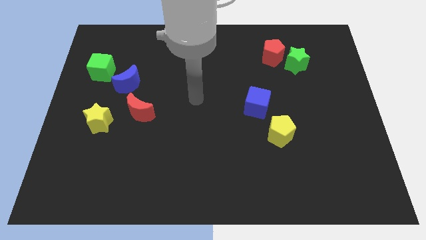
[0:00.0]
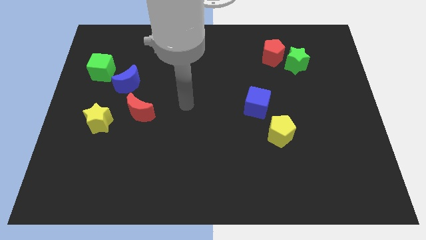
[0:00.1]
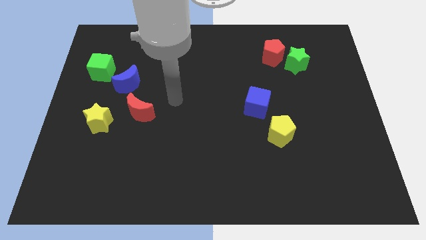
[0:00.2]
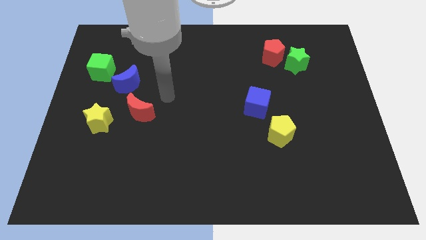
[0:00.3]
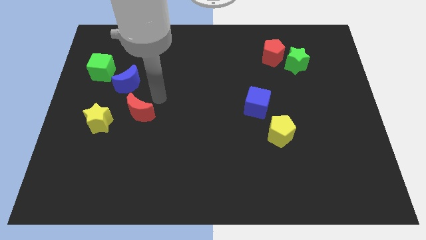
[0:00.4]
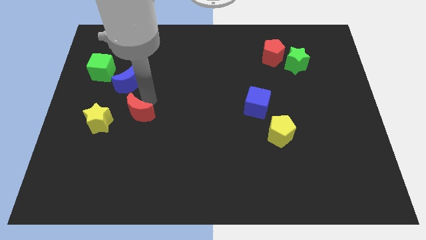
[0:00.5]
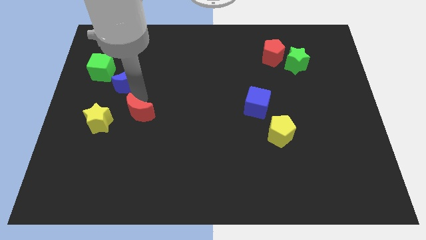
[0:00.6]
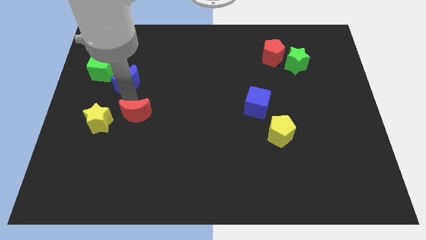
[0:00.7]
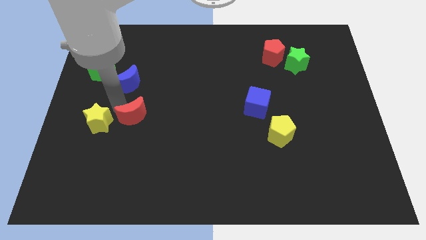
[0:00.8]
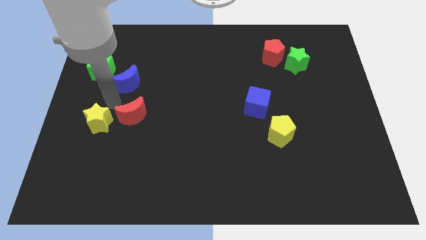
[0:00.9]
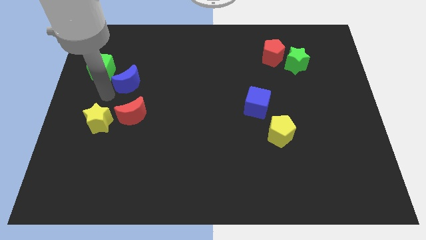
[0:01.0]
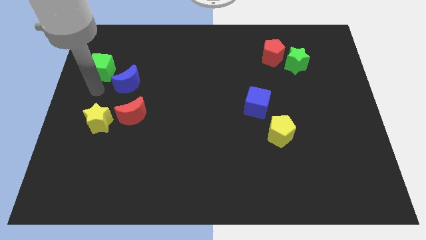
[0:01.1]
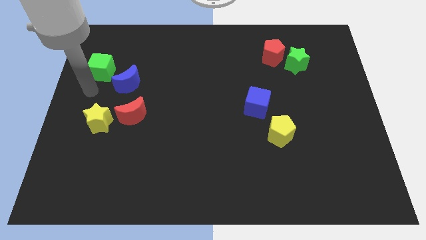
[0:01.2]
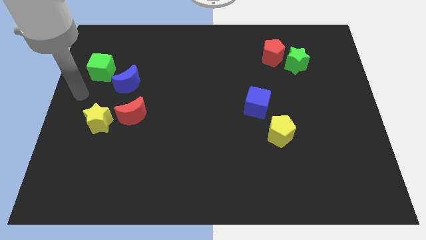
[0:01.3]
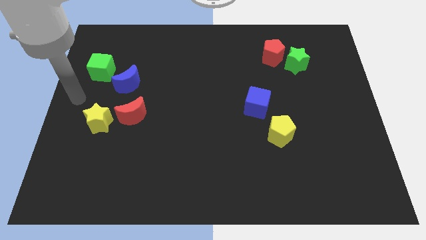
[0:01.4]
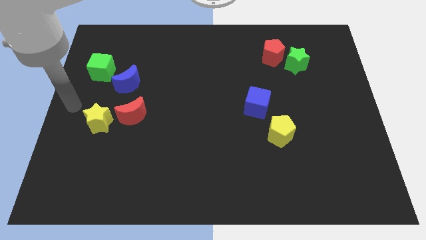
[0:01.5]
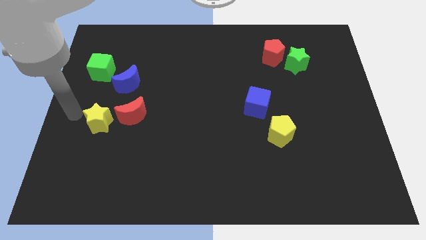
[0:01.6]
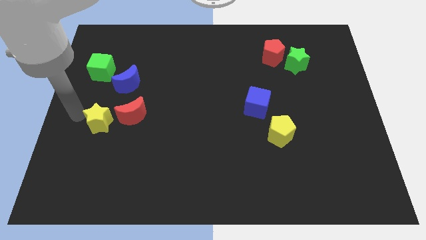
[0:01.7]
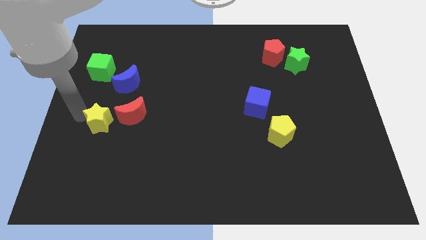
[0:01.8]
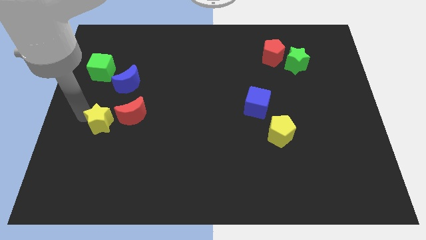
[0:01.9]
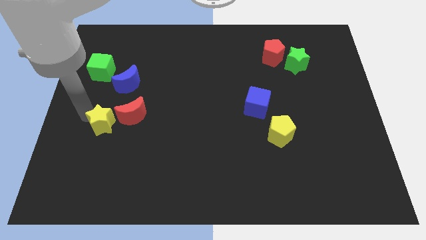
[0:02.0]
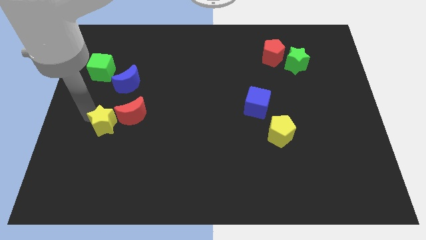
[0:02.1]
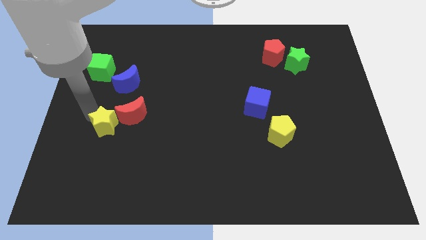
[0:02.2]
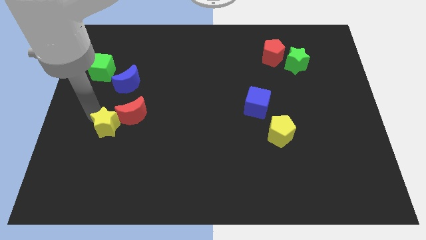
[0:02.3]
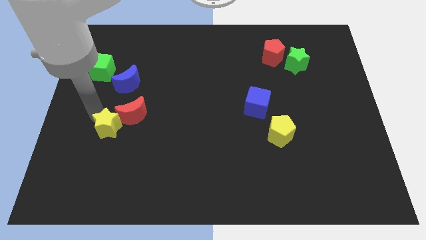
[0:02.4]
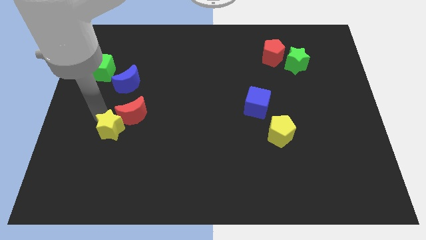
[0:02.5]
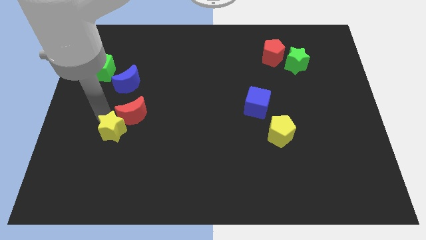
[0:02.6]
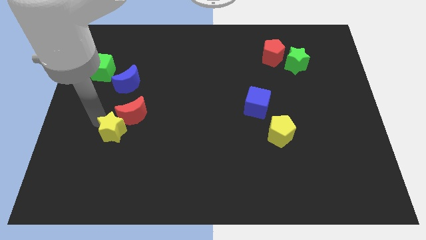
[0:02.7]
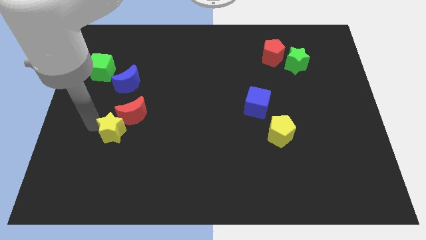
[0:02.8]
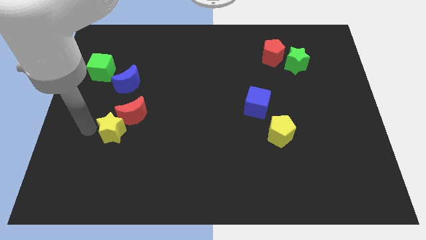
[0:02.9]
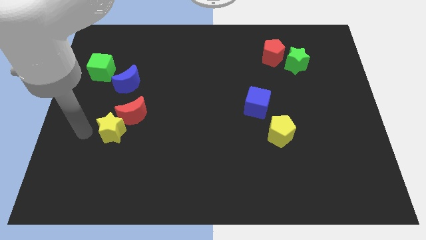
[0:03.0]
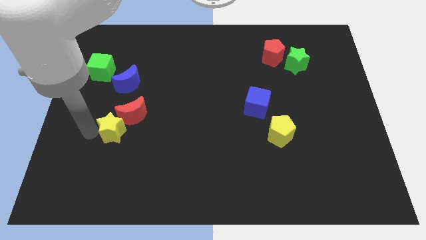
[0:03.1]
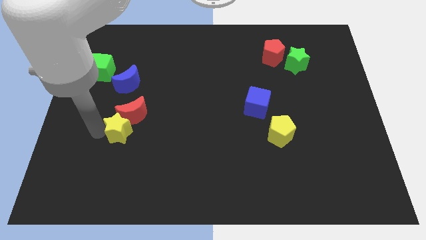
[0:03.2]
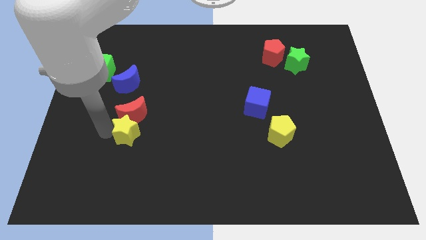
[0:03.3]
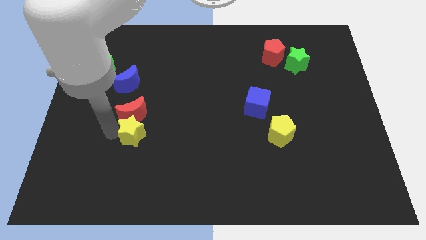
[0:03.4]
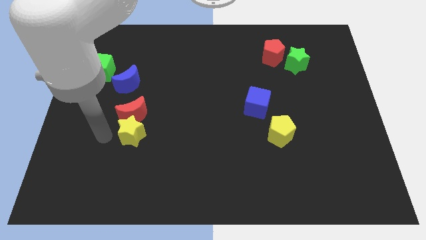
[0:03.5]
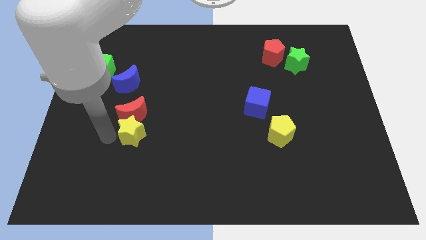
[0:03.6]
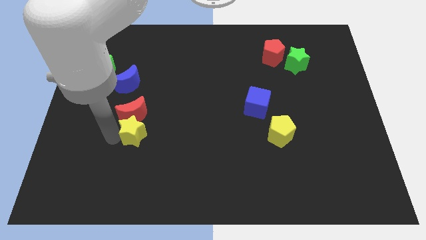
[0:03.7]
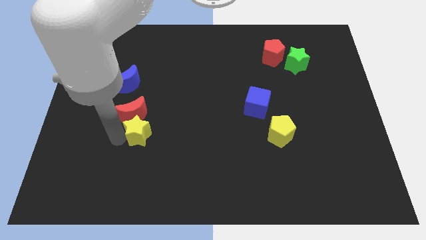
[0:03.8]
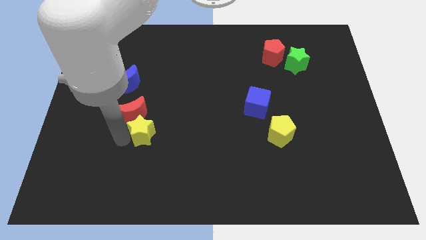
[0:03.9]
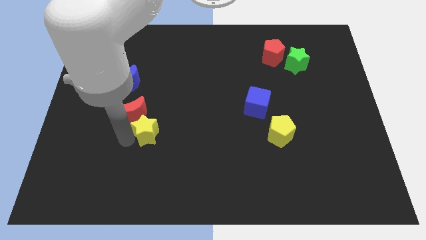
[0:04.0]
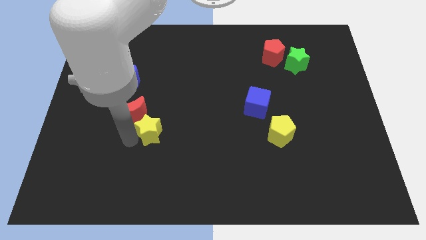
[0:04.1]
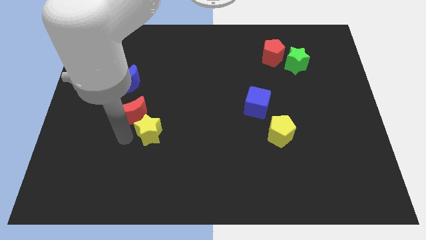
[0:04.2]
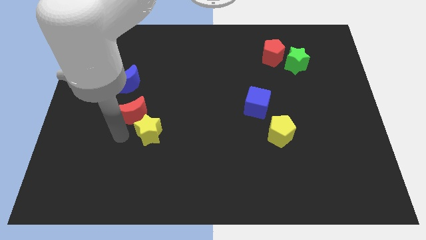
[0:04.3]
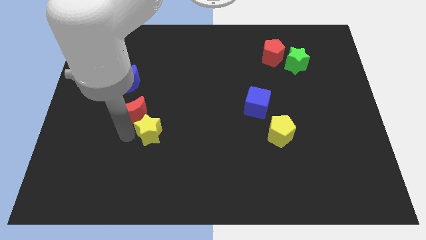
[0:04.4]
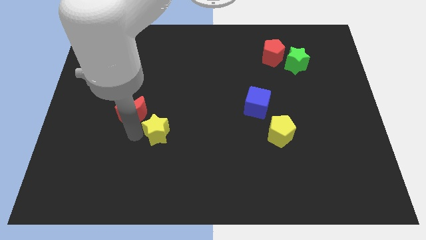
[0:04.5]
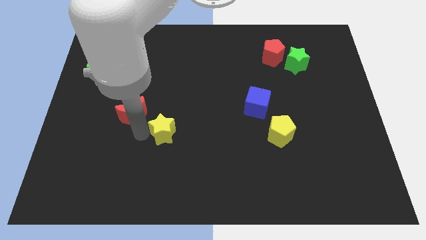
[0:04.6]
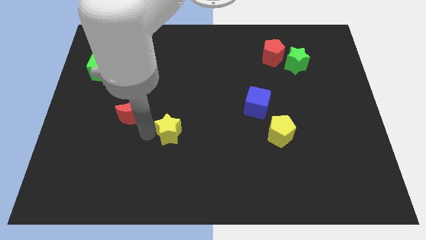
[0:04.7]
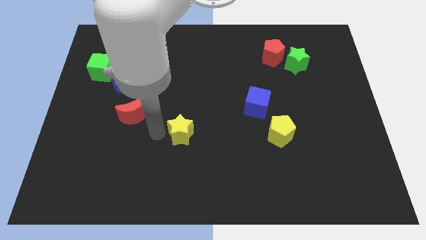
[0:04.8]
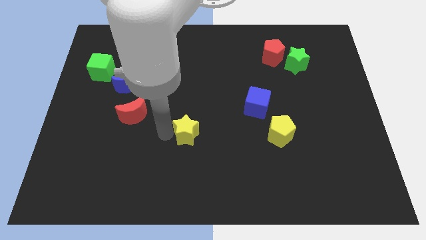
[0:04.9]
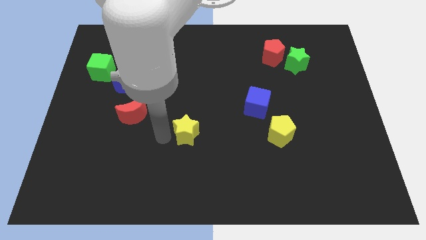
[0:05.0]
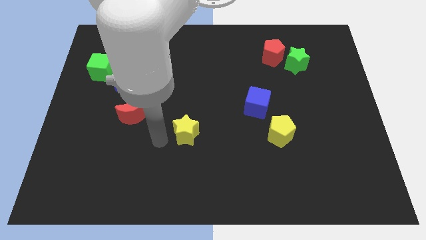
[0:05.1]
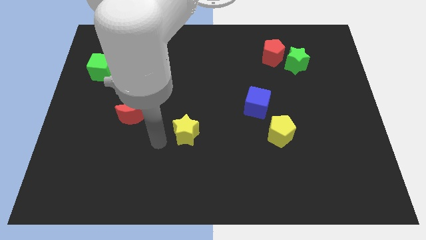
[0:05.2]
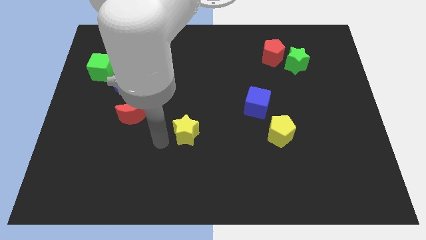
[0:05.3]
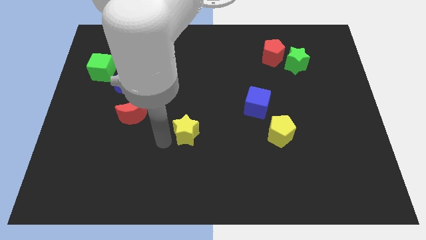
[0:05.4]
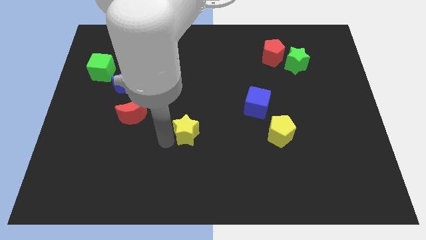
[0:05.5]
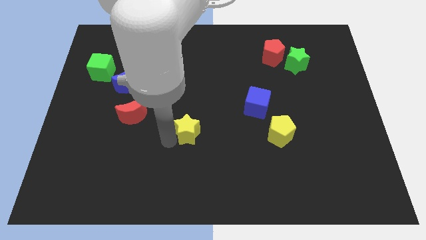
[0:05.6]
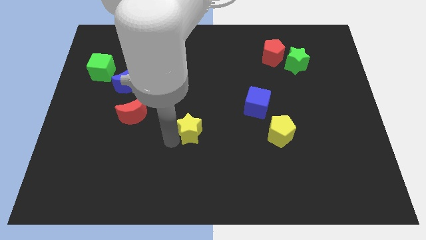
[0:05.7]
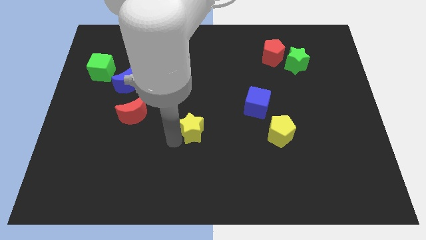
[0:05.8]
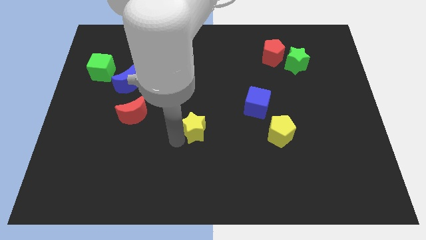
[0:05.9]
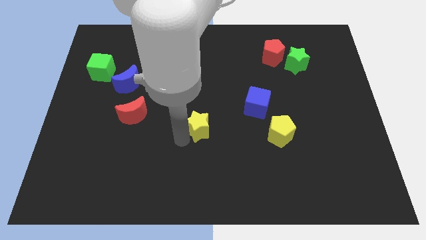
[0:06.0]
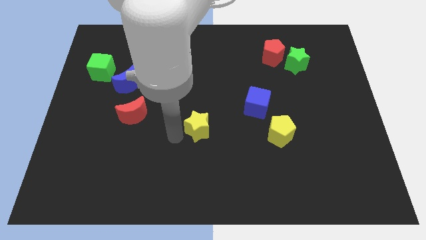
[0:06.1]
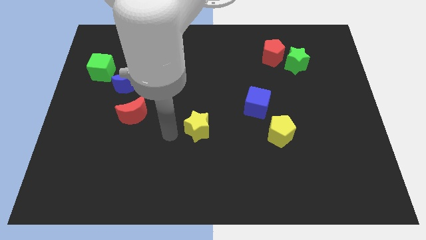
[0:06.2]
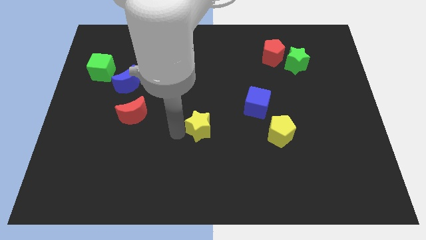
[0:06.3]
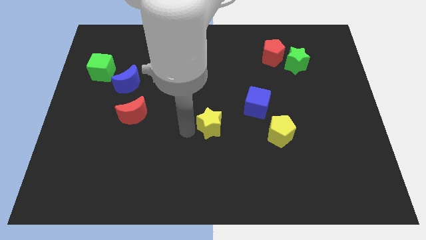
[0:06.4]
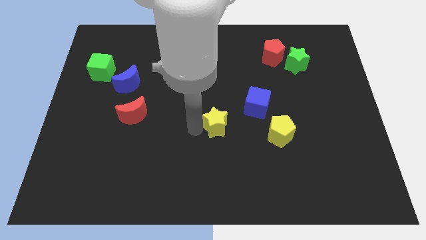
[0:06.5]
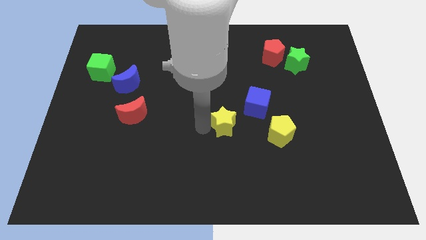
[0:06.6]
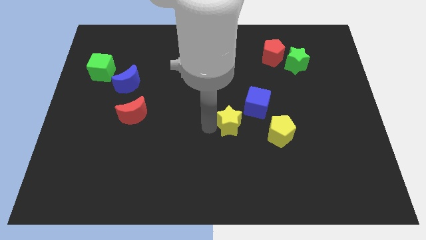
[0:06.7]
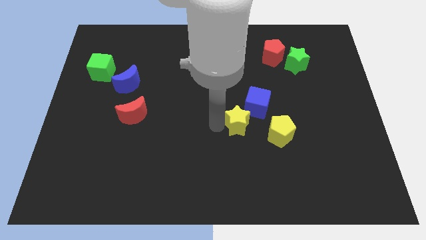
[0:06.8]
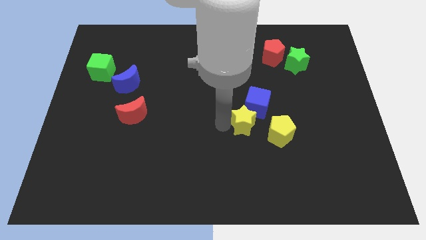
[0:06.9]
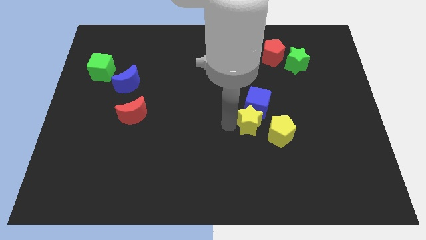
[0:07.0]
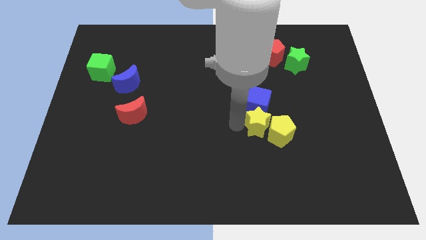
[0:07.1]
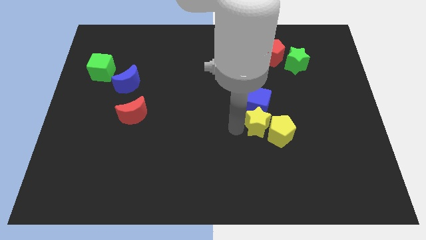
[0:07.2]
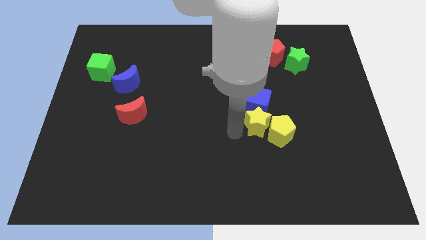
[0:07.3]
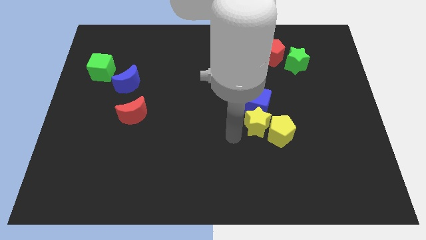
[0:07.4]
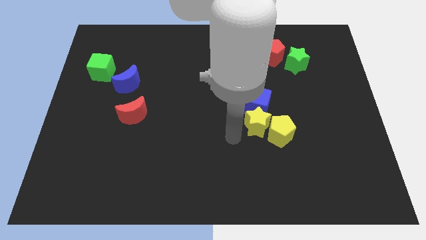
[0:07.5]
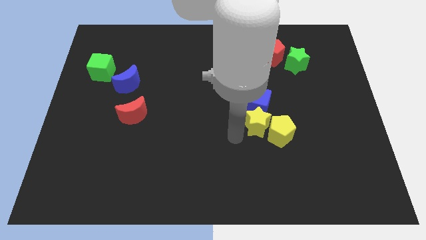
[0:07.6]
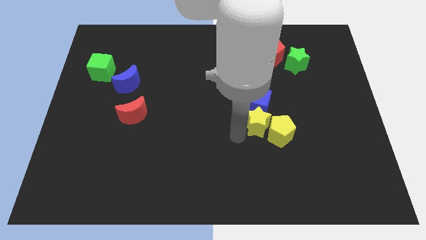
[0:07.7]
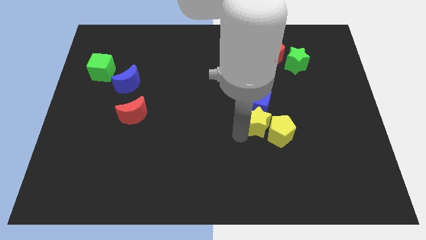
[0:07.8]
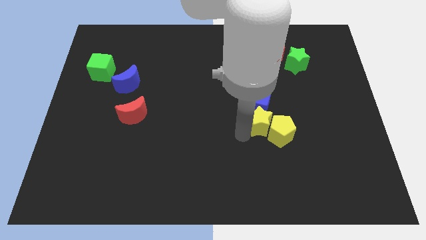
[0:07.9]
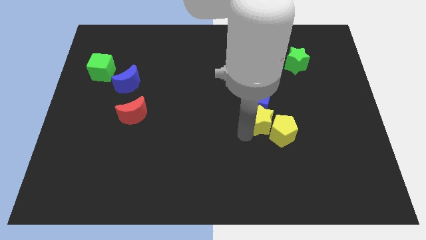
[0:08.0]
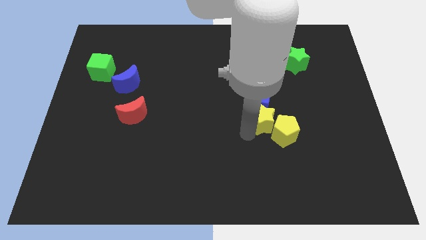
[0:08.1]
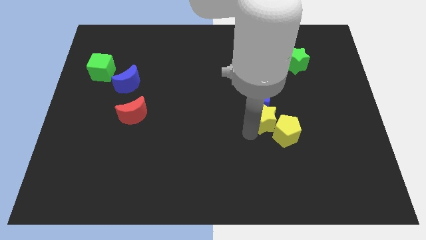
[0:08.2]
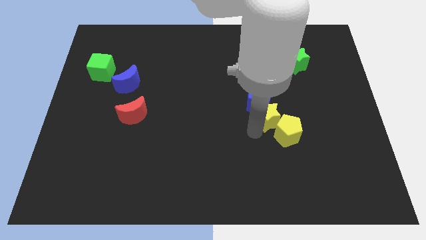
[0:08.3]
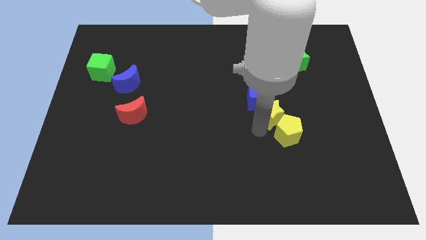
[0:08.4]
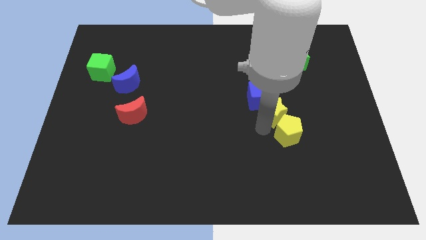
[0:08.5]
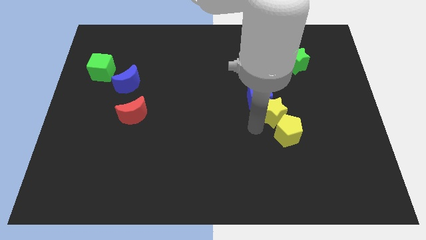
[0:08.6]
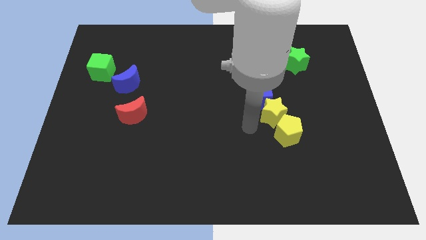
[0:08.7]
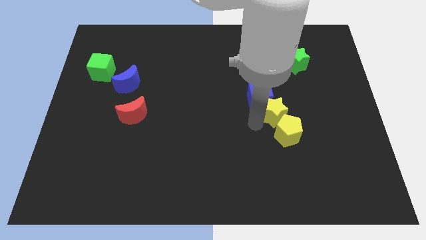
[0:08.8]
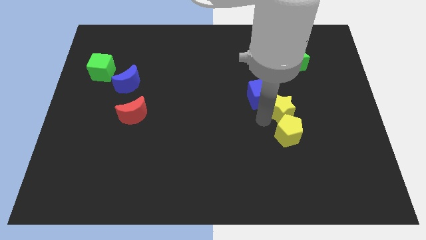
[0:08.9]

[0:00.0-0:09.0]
push the yellow star to the right side of the blue cube
